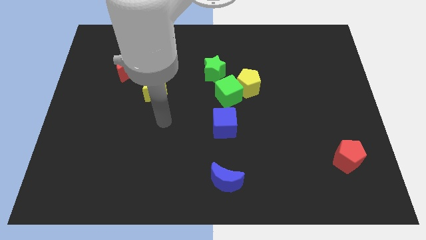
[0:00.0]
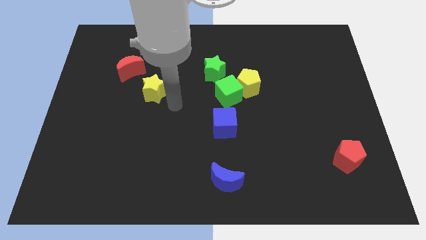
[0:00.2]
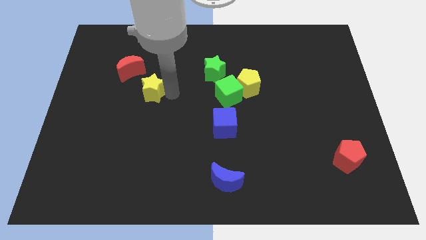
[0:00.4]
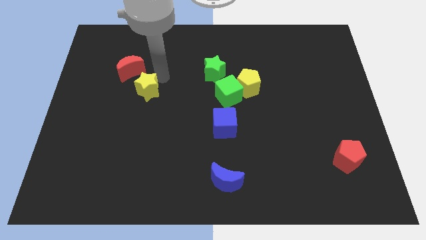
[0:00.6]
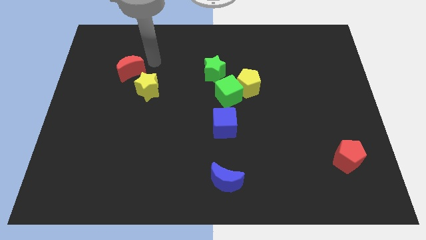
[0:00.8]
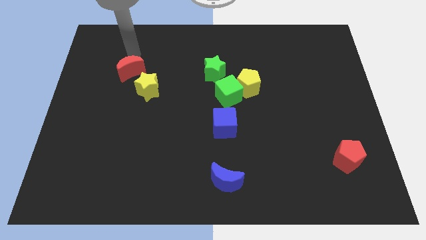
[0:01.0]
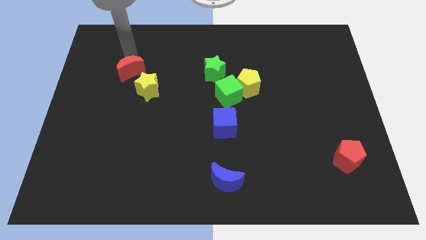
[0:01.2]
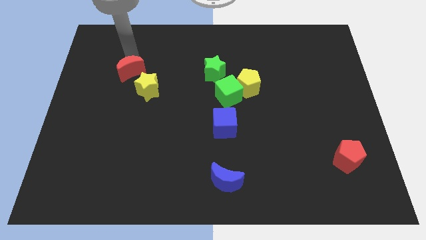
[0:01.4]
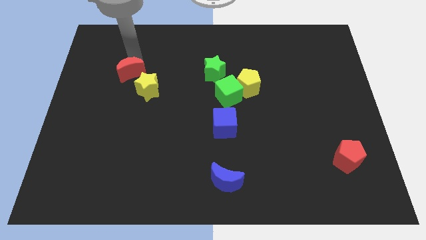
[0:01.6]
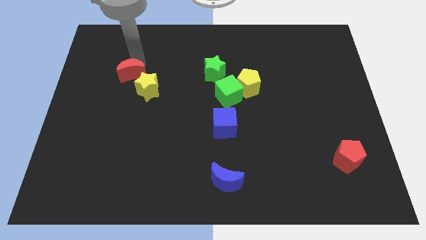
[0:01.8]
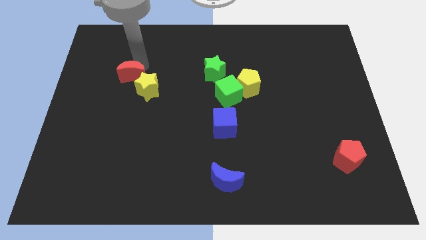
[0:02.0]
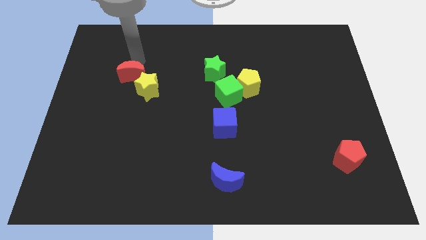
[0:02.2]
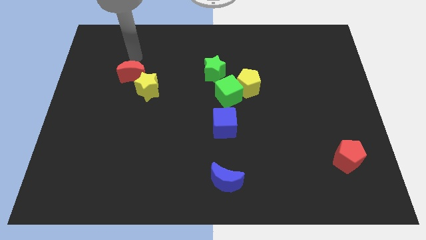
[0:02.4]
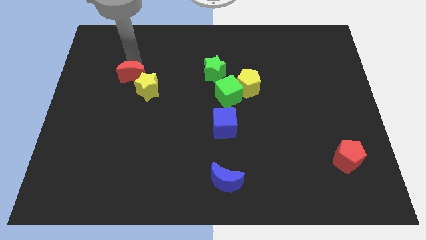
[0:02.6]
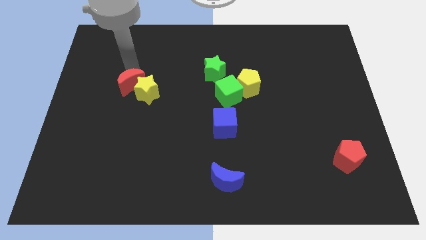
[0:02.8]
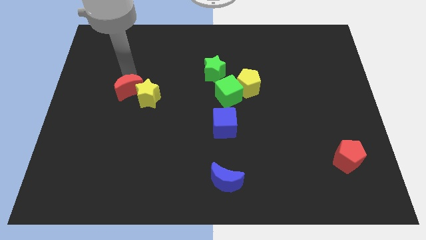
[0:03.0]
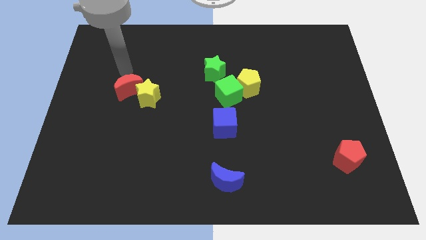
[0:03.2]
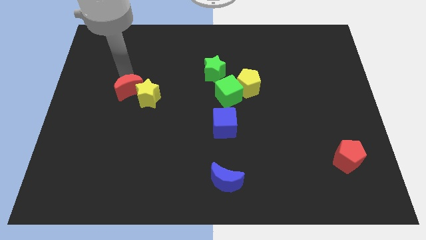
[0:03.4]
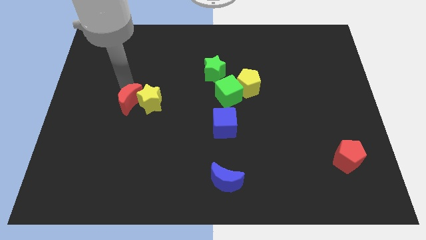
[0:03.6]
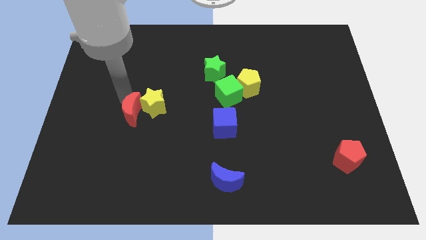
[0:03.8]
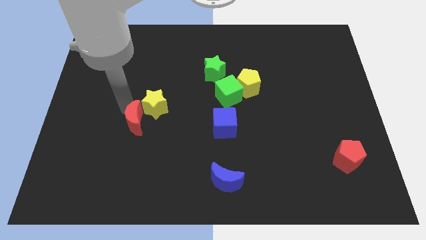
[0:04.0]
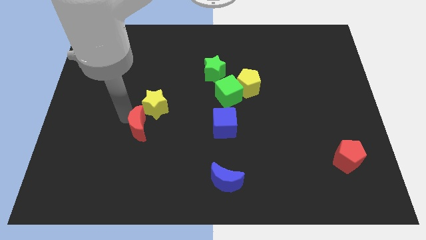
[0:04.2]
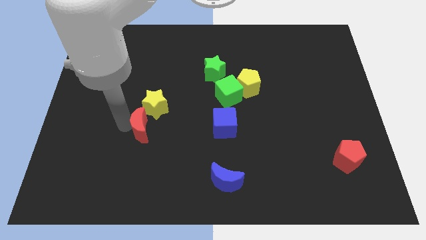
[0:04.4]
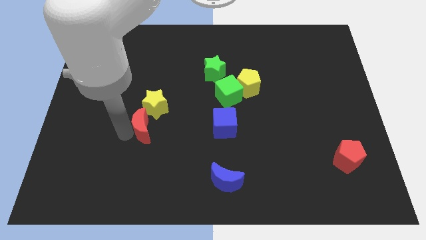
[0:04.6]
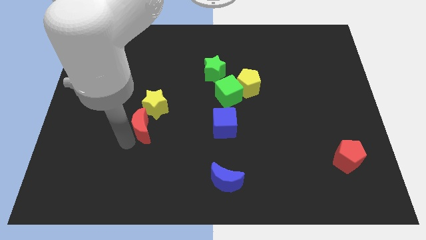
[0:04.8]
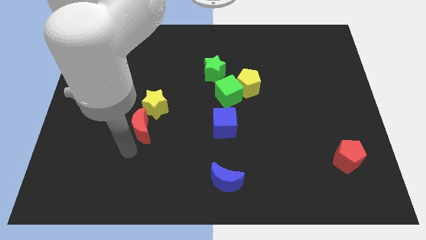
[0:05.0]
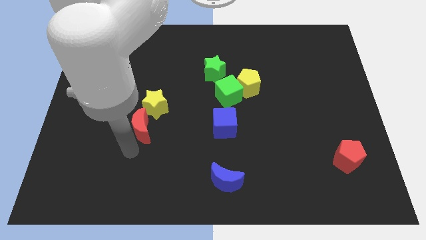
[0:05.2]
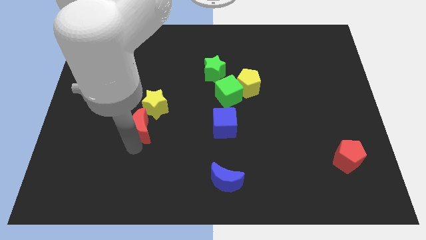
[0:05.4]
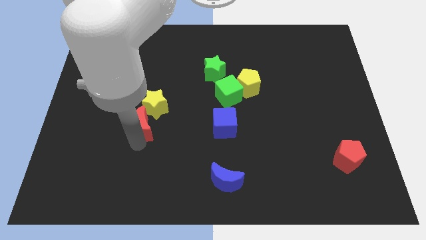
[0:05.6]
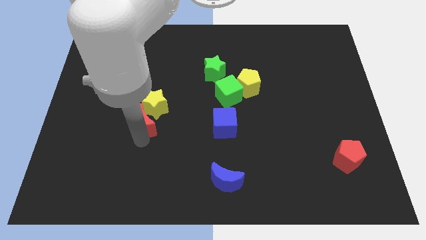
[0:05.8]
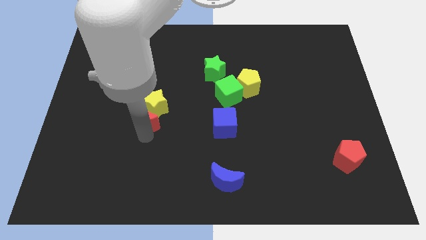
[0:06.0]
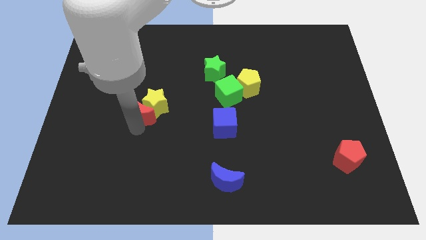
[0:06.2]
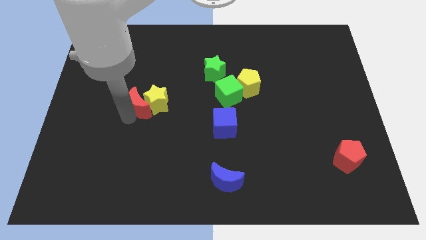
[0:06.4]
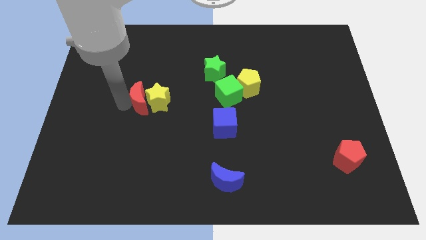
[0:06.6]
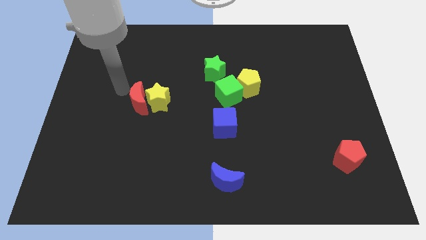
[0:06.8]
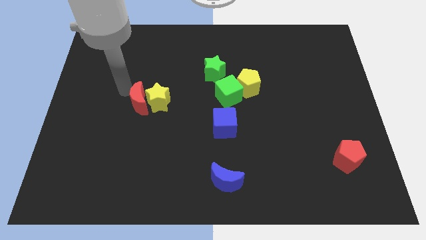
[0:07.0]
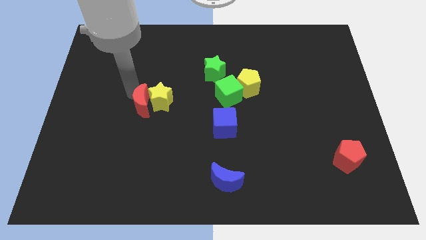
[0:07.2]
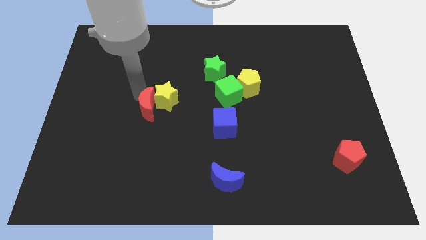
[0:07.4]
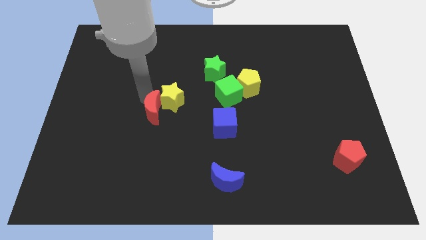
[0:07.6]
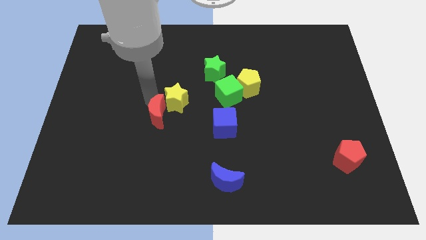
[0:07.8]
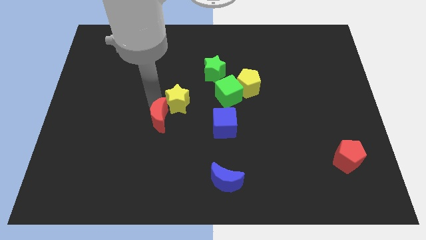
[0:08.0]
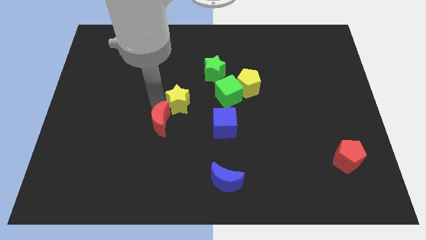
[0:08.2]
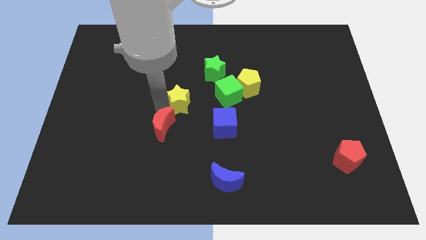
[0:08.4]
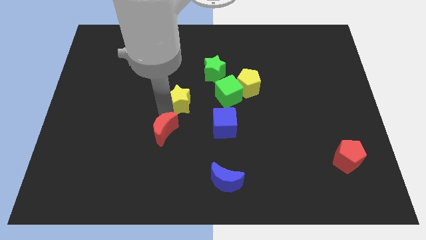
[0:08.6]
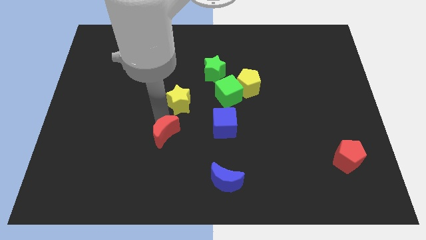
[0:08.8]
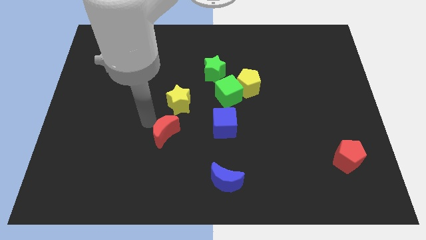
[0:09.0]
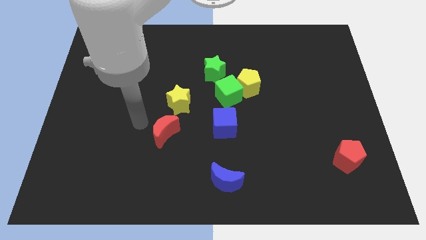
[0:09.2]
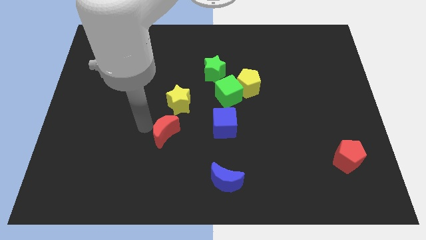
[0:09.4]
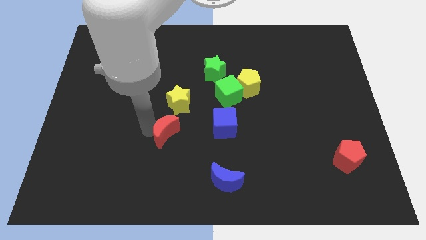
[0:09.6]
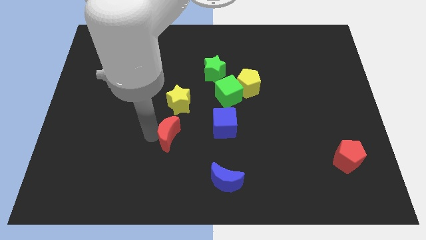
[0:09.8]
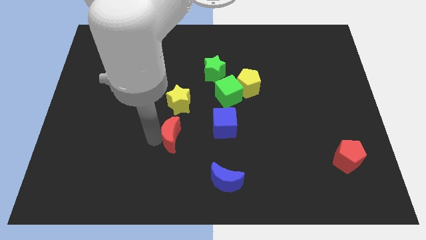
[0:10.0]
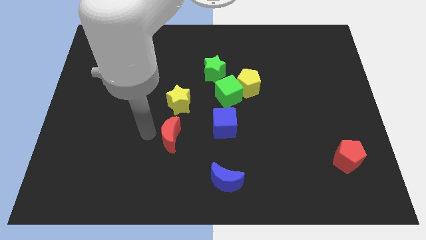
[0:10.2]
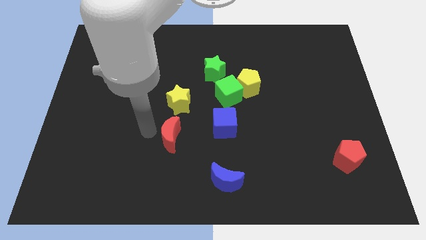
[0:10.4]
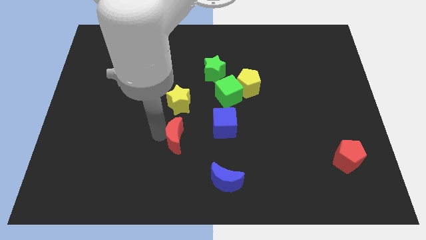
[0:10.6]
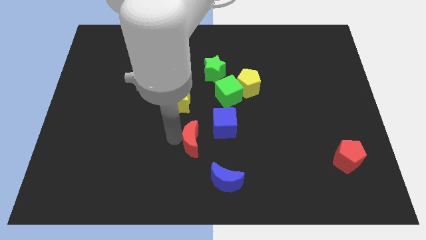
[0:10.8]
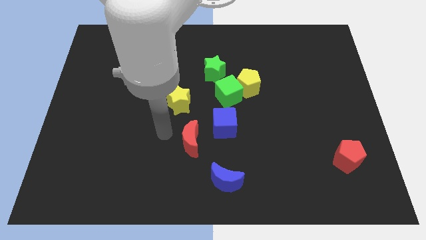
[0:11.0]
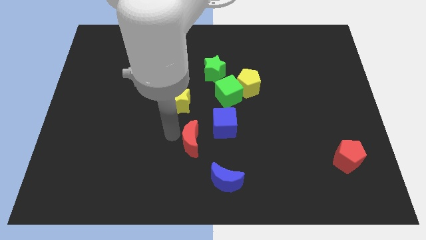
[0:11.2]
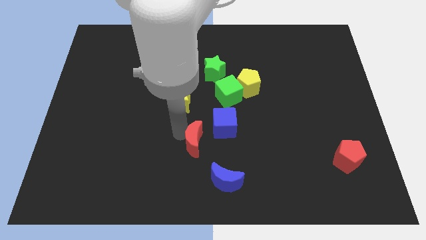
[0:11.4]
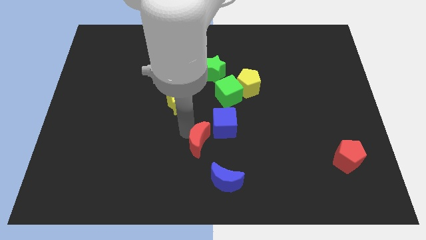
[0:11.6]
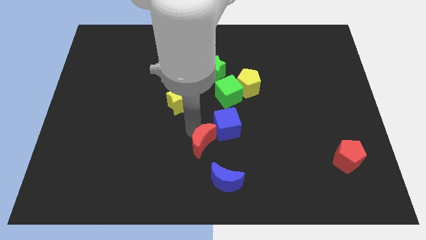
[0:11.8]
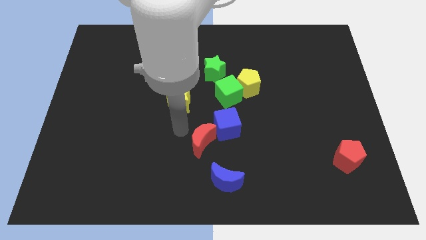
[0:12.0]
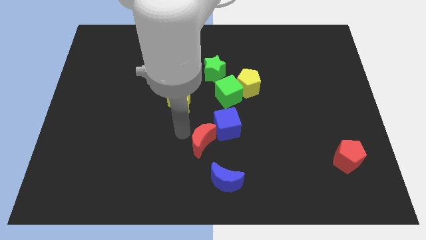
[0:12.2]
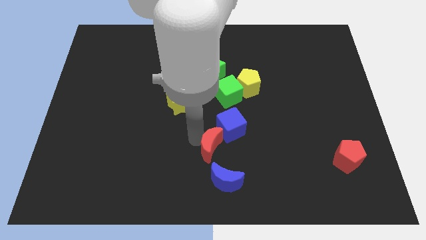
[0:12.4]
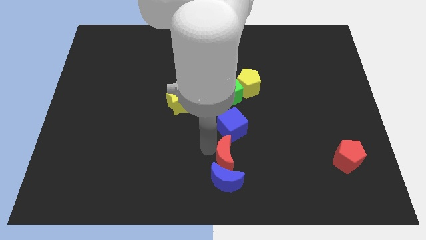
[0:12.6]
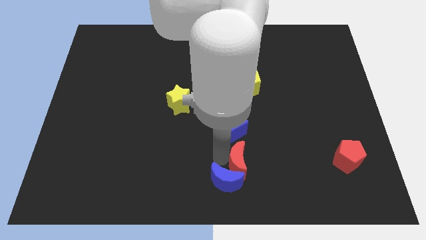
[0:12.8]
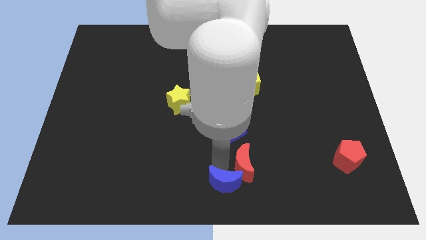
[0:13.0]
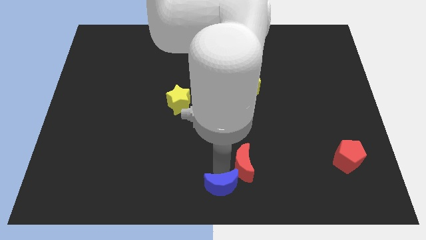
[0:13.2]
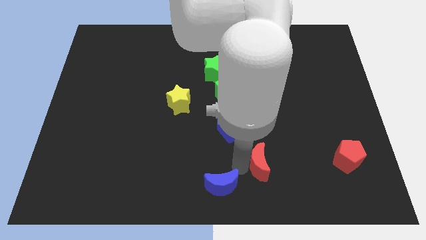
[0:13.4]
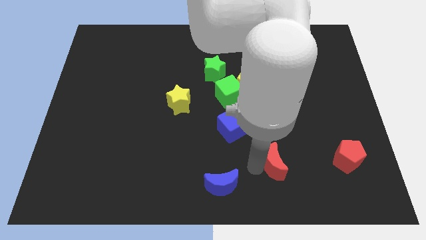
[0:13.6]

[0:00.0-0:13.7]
move the red moon to the left side of the red pentagon
